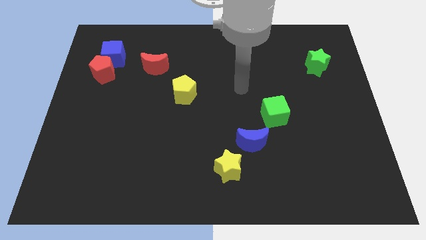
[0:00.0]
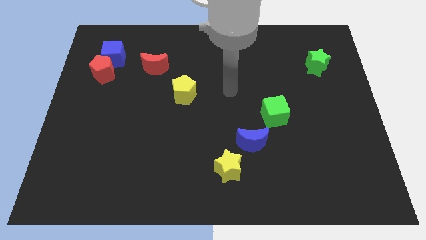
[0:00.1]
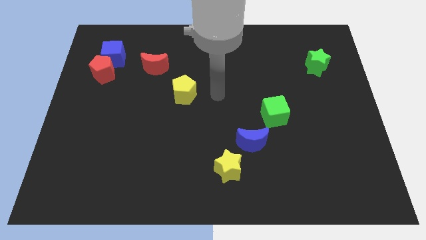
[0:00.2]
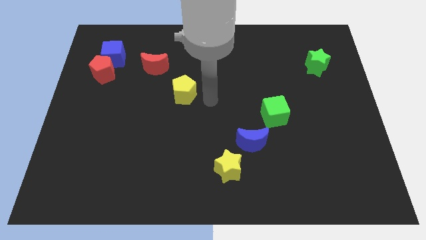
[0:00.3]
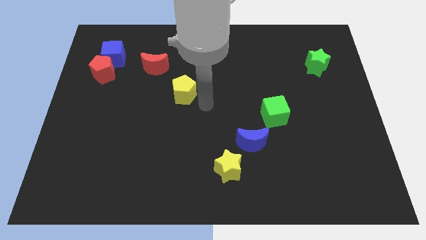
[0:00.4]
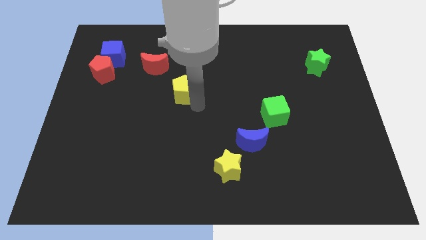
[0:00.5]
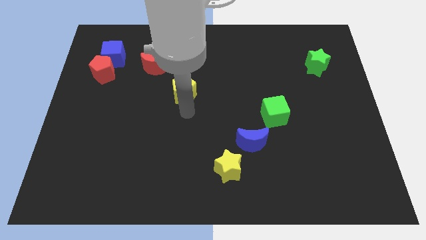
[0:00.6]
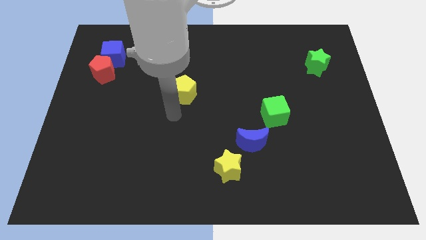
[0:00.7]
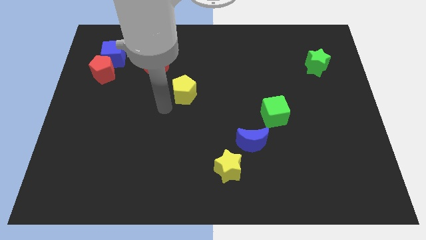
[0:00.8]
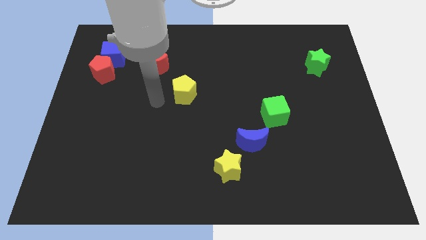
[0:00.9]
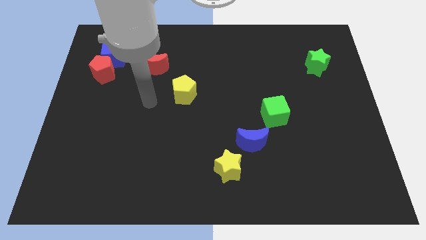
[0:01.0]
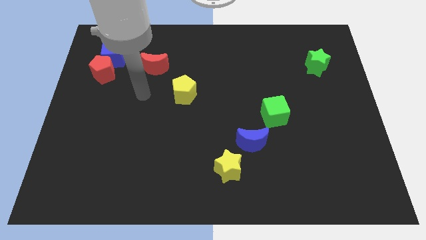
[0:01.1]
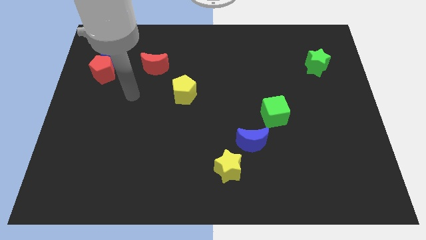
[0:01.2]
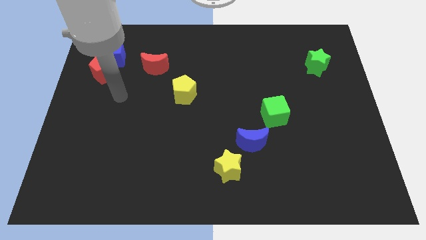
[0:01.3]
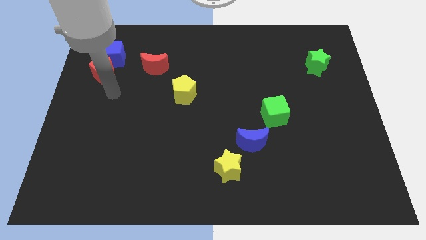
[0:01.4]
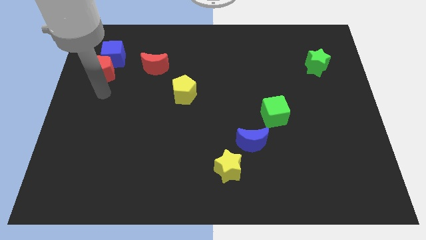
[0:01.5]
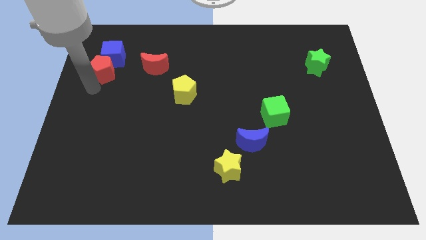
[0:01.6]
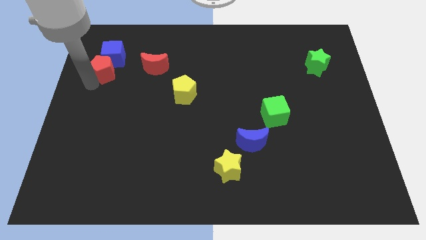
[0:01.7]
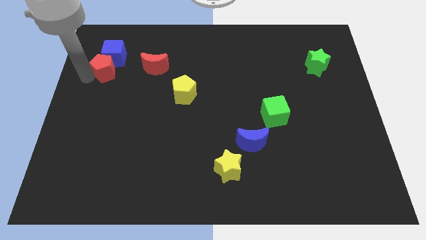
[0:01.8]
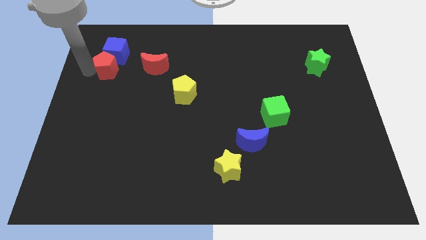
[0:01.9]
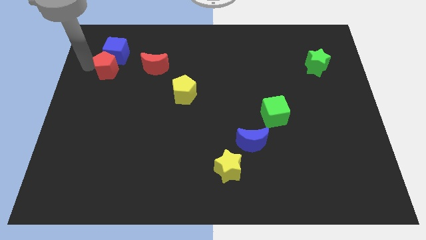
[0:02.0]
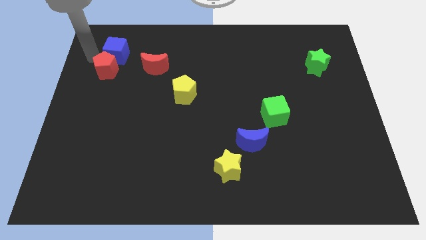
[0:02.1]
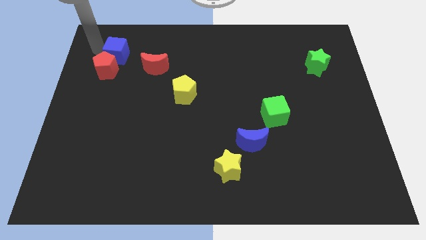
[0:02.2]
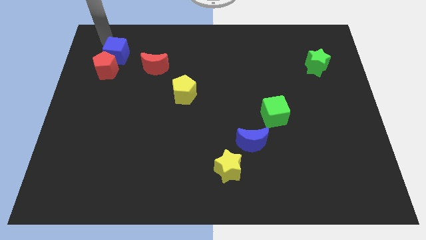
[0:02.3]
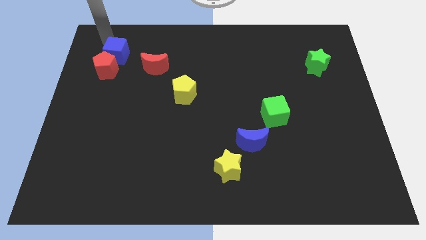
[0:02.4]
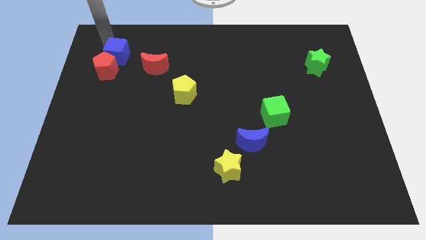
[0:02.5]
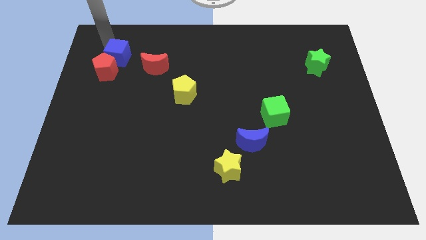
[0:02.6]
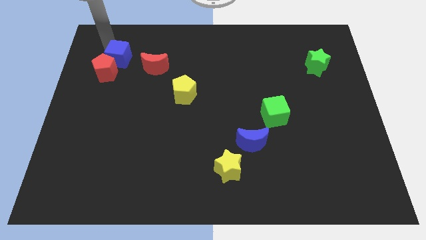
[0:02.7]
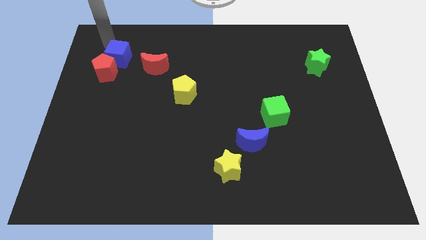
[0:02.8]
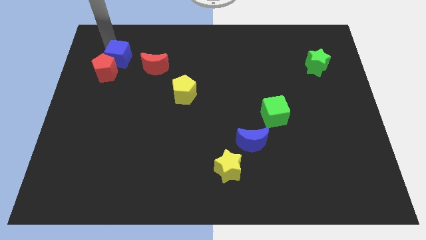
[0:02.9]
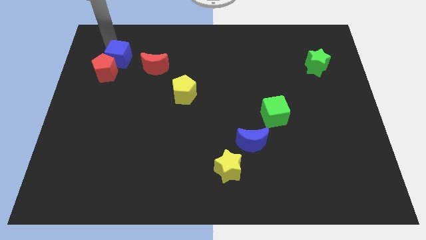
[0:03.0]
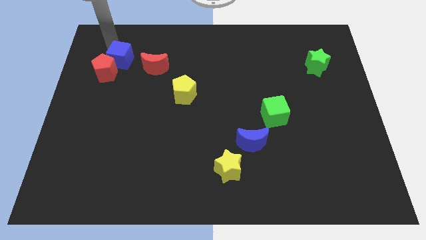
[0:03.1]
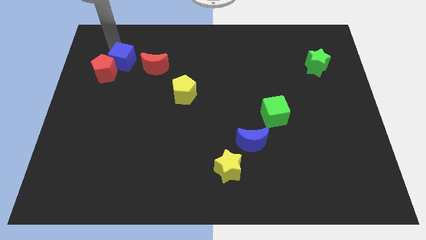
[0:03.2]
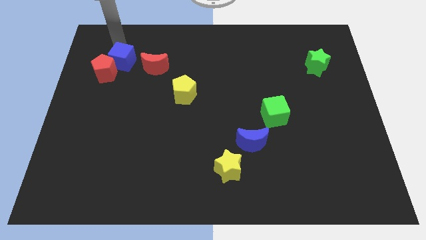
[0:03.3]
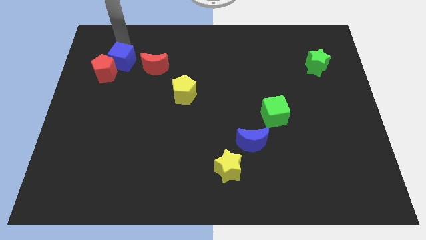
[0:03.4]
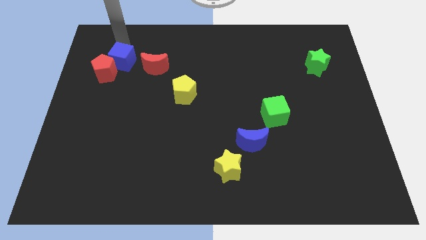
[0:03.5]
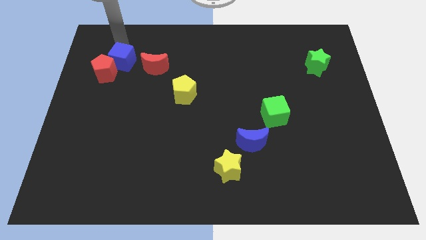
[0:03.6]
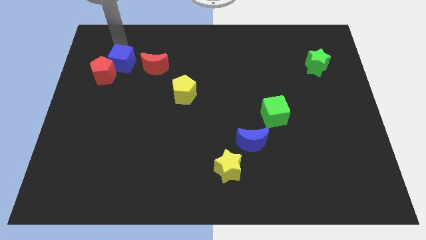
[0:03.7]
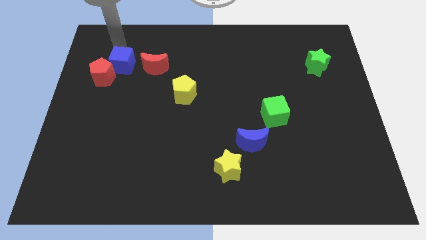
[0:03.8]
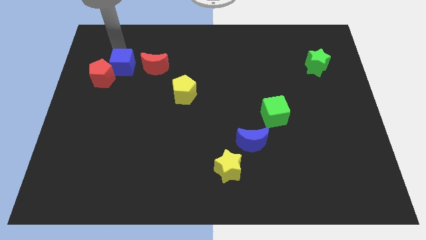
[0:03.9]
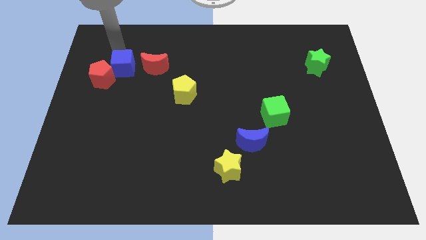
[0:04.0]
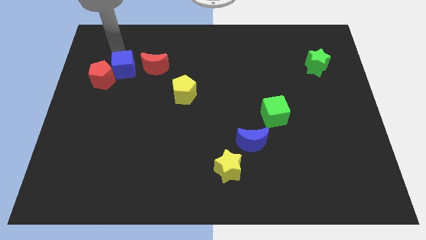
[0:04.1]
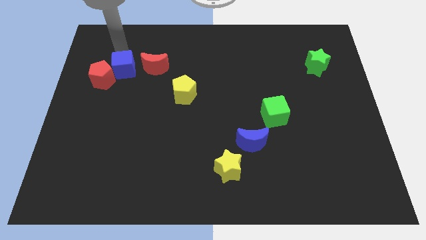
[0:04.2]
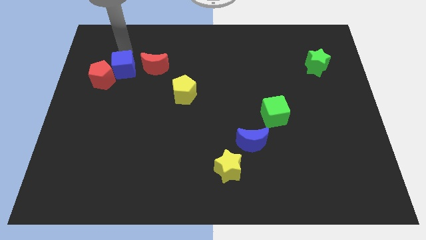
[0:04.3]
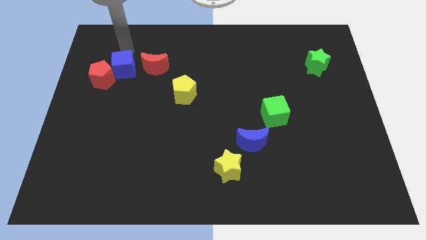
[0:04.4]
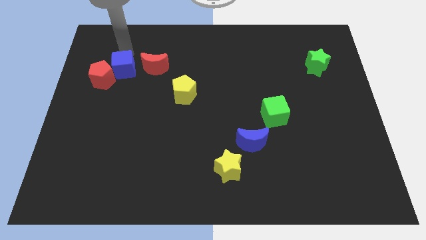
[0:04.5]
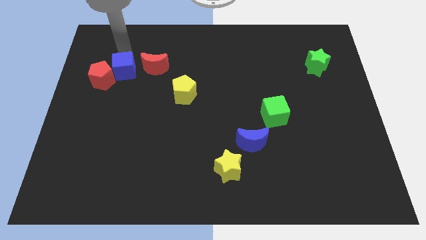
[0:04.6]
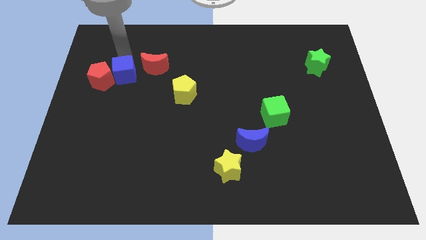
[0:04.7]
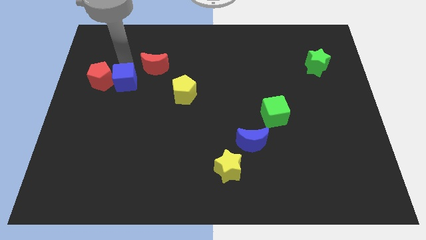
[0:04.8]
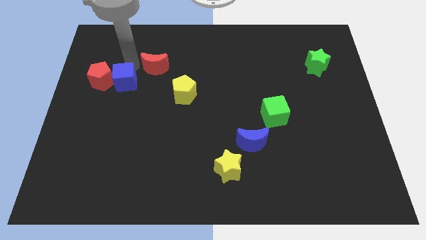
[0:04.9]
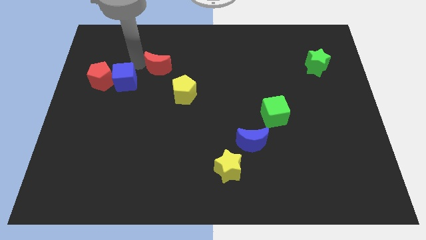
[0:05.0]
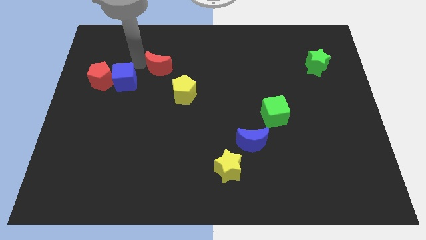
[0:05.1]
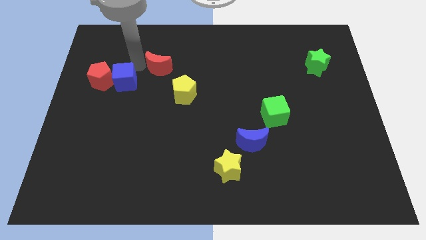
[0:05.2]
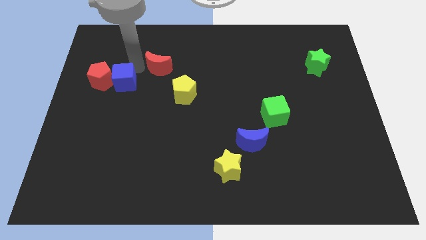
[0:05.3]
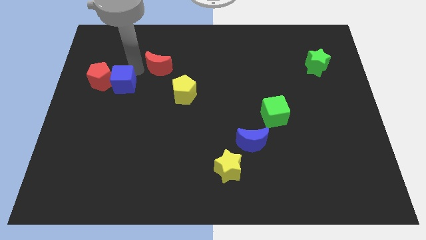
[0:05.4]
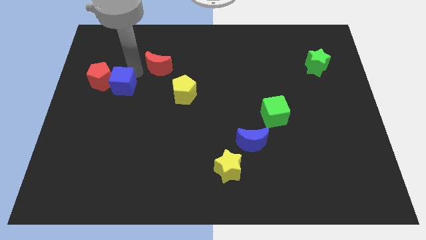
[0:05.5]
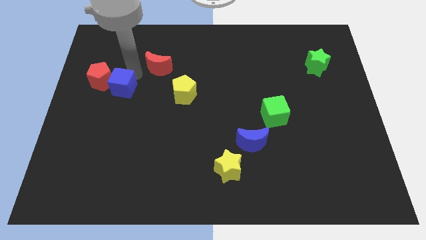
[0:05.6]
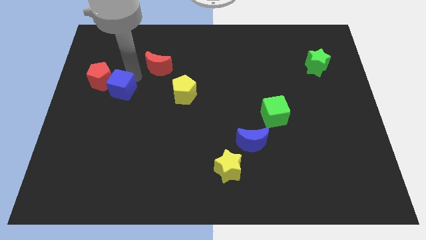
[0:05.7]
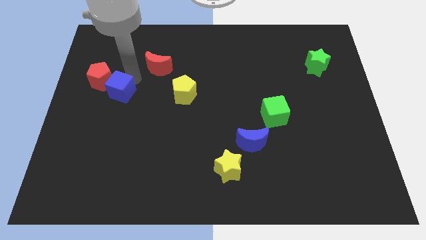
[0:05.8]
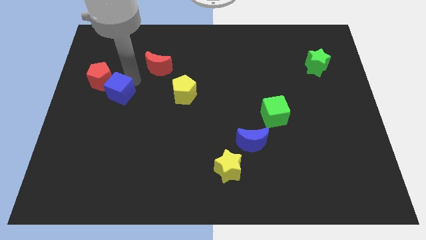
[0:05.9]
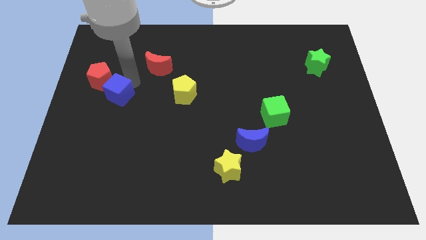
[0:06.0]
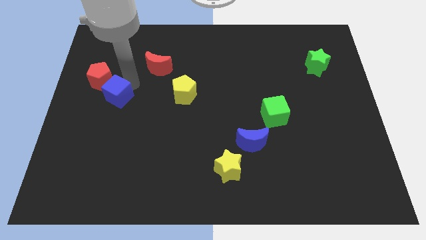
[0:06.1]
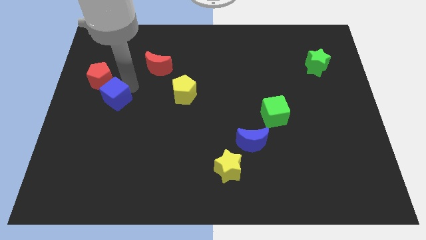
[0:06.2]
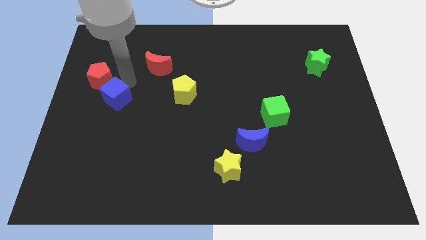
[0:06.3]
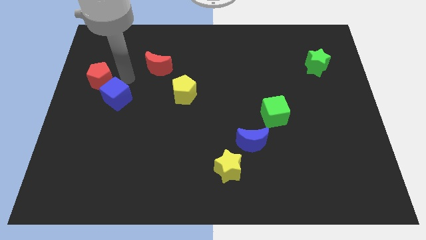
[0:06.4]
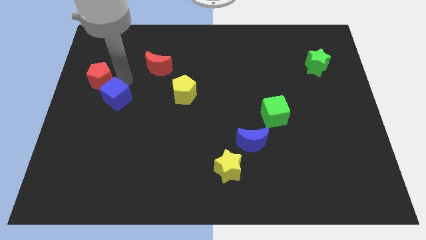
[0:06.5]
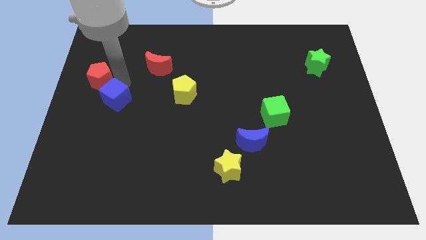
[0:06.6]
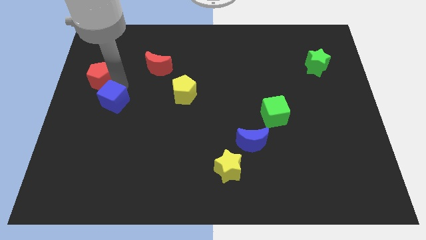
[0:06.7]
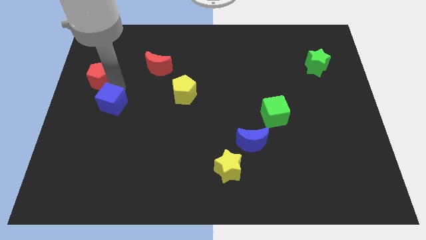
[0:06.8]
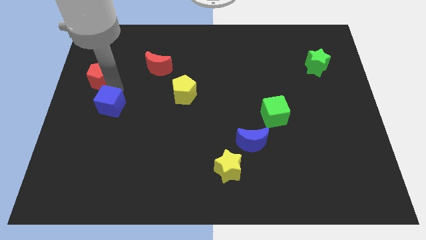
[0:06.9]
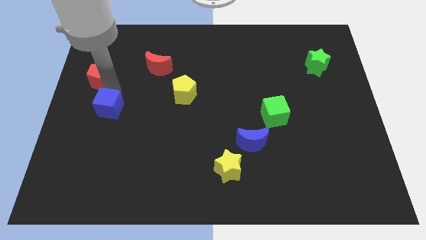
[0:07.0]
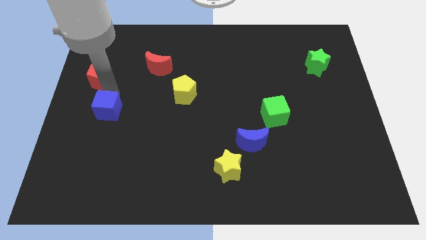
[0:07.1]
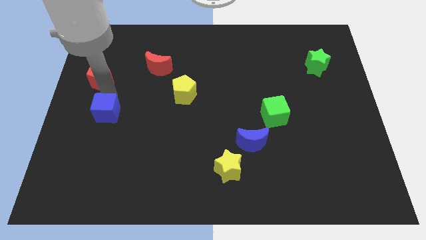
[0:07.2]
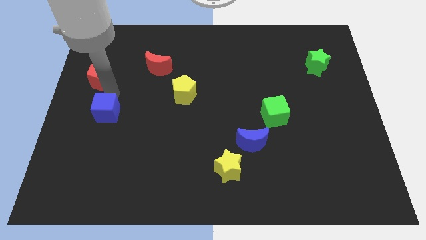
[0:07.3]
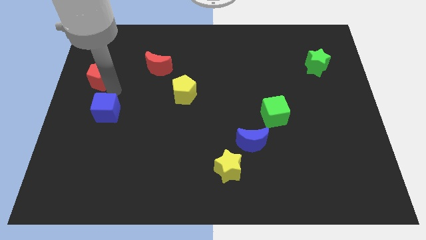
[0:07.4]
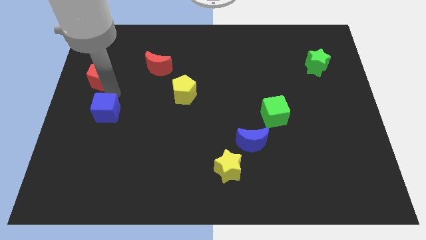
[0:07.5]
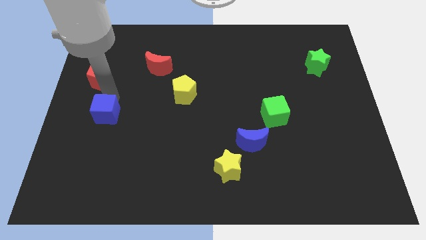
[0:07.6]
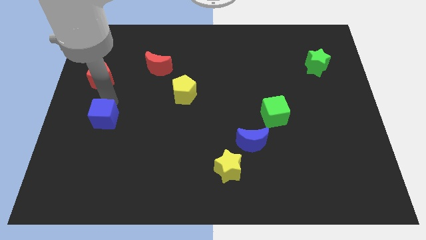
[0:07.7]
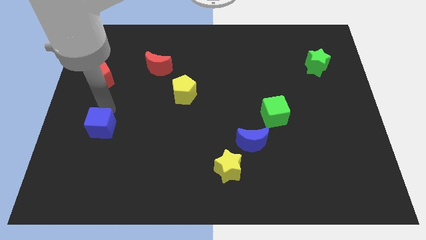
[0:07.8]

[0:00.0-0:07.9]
slide the blue cube down
